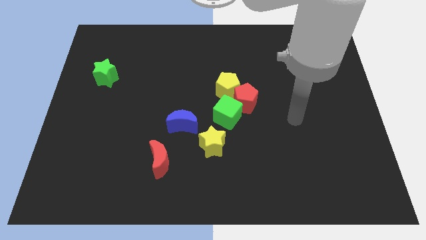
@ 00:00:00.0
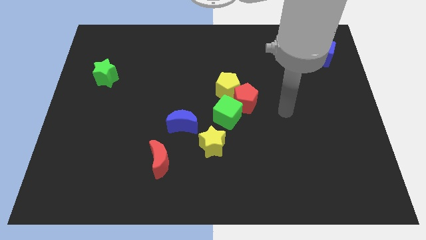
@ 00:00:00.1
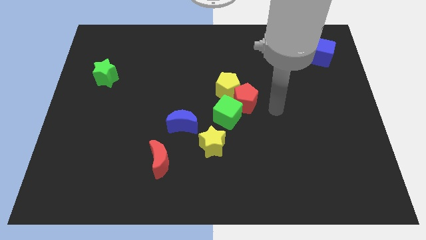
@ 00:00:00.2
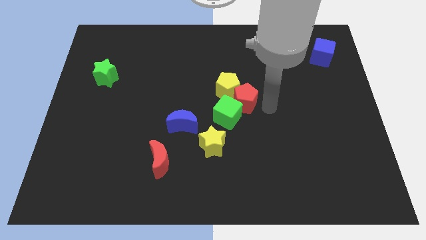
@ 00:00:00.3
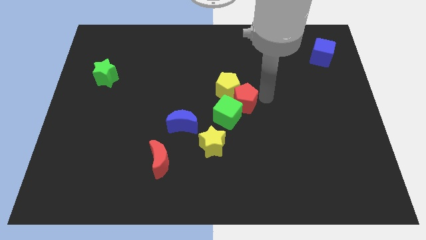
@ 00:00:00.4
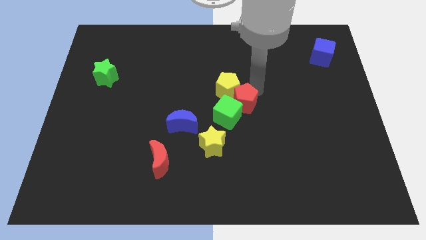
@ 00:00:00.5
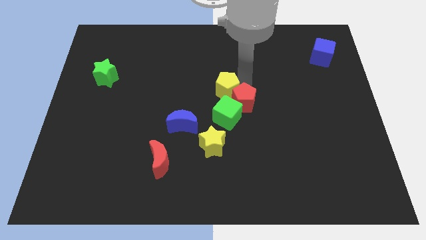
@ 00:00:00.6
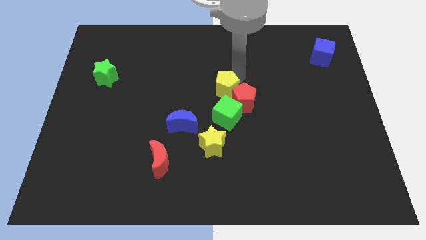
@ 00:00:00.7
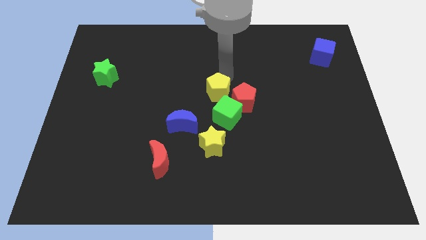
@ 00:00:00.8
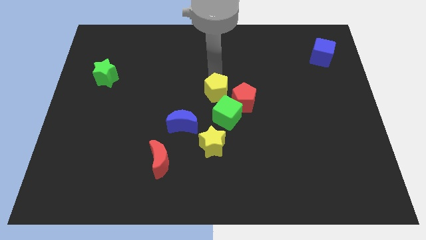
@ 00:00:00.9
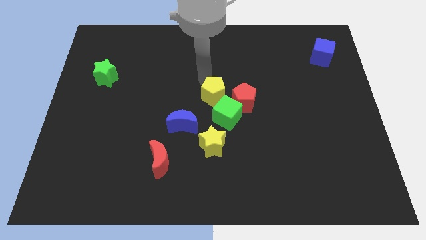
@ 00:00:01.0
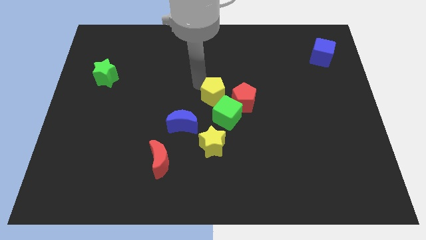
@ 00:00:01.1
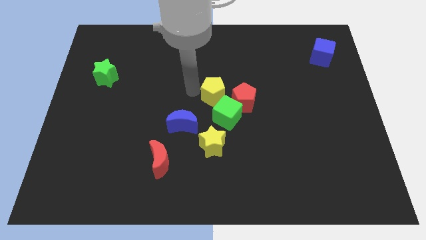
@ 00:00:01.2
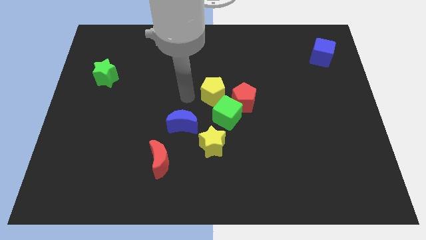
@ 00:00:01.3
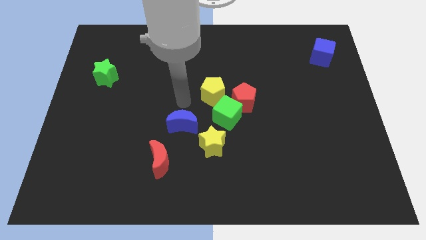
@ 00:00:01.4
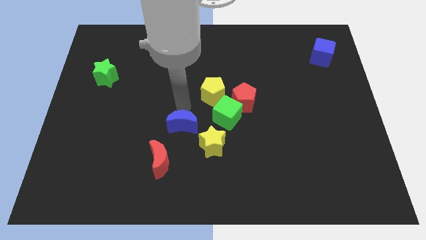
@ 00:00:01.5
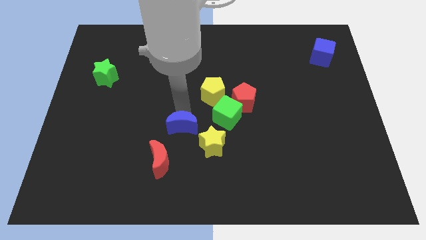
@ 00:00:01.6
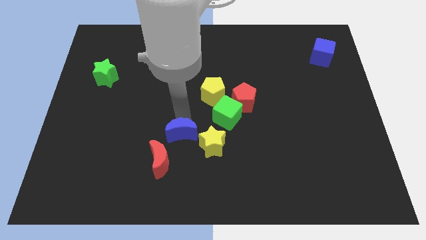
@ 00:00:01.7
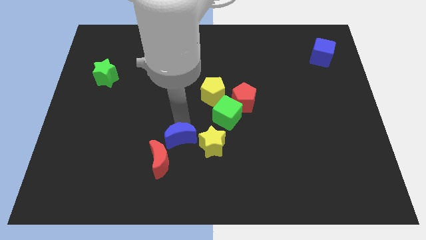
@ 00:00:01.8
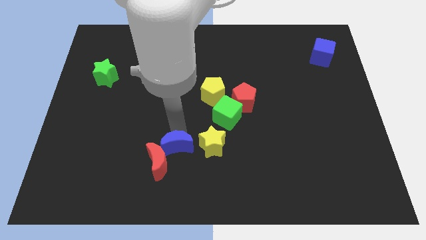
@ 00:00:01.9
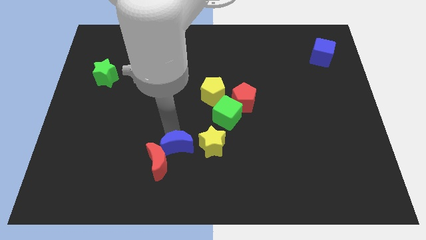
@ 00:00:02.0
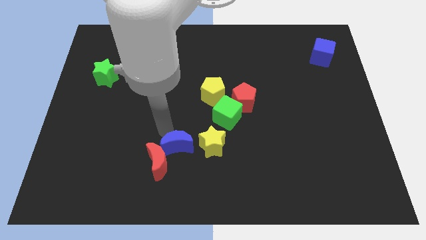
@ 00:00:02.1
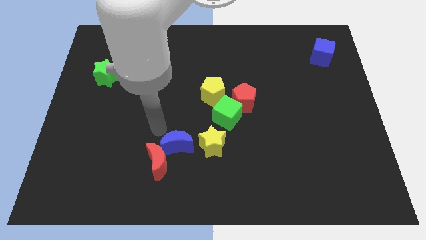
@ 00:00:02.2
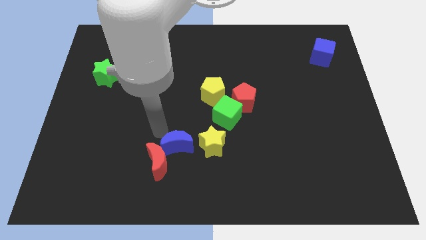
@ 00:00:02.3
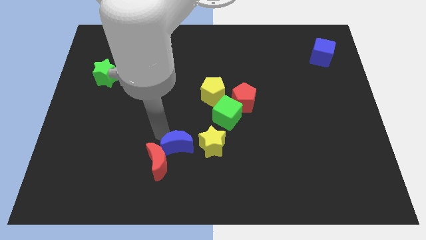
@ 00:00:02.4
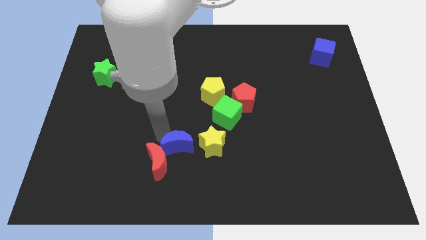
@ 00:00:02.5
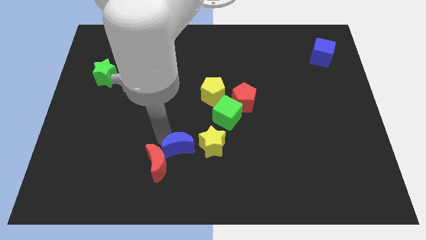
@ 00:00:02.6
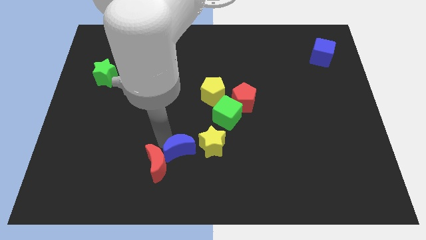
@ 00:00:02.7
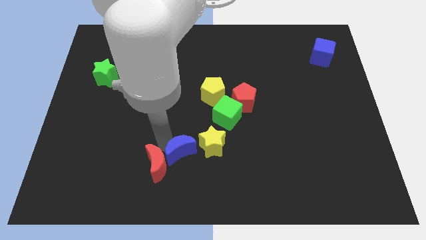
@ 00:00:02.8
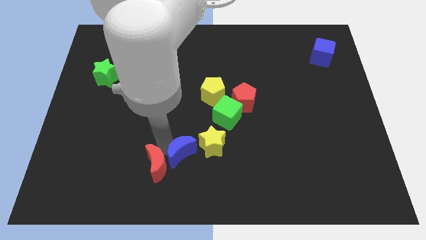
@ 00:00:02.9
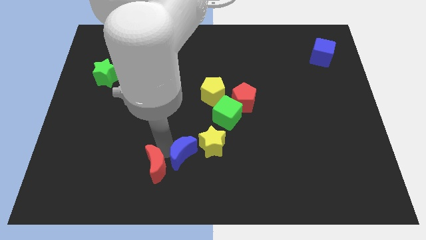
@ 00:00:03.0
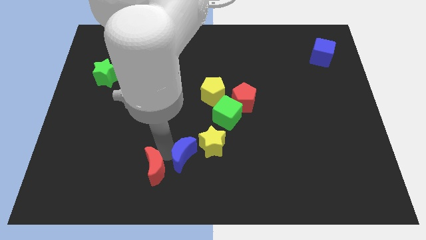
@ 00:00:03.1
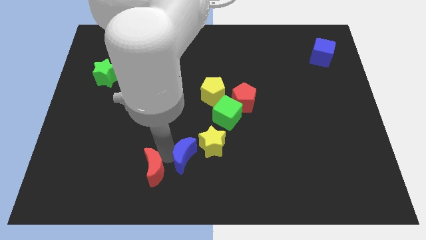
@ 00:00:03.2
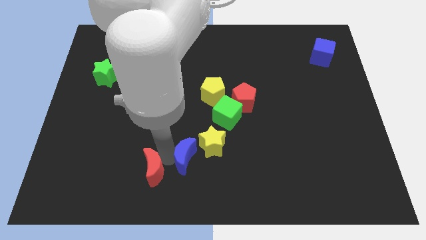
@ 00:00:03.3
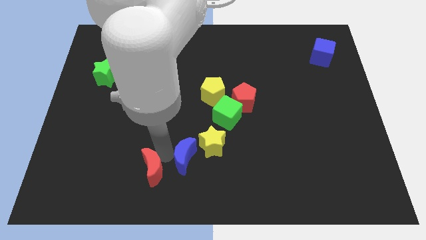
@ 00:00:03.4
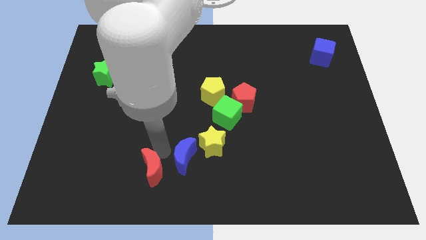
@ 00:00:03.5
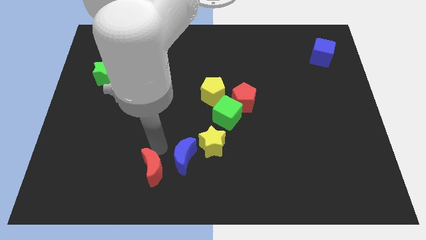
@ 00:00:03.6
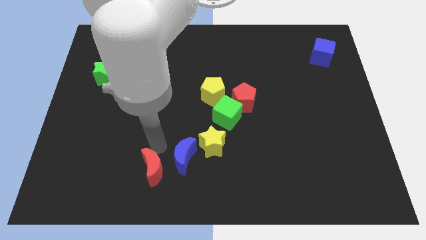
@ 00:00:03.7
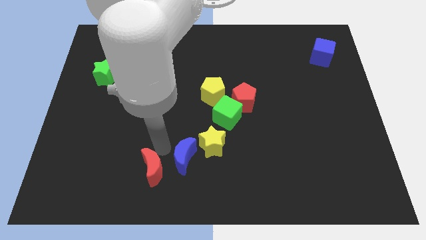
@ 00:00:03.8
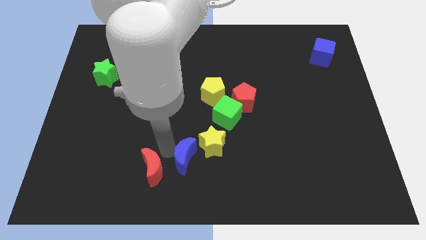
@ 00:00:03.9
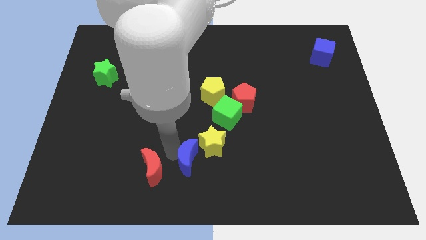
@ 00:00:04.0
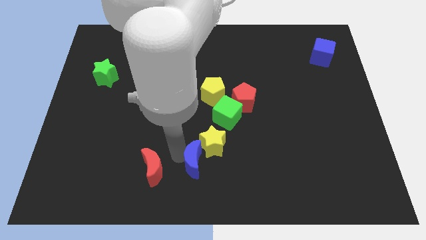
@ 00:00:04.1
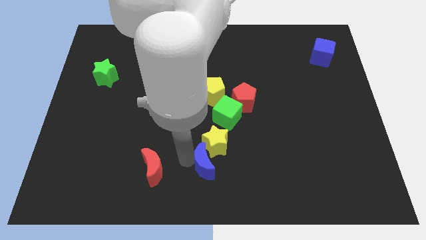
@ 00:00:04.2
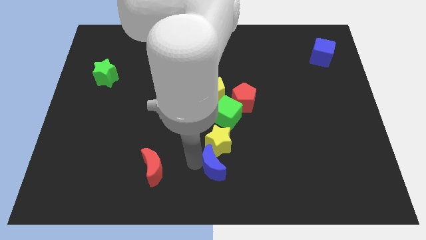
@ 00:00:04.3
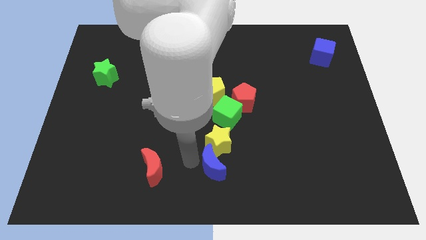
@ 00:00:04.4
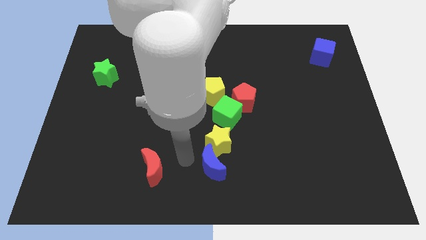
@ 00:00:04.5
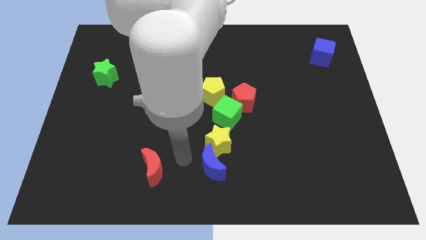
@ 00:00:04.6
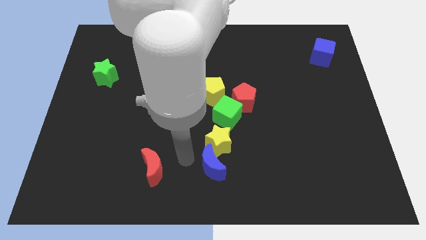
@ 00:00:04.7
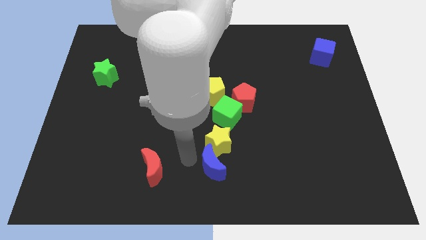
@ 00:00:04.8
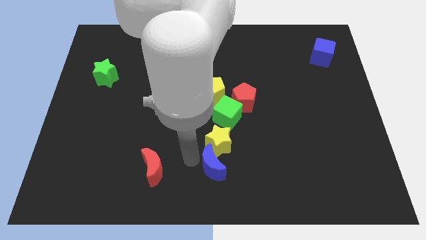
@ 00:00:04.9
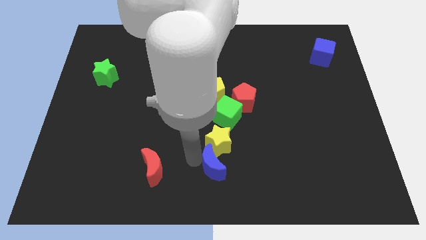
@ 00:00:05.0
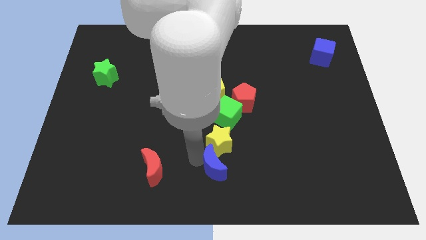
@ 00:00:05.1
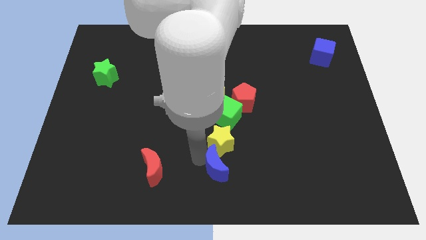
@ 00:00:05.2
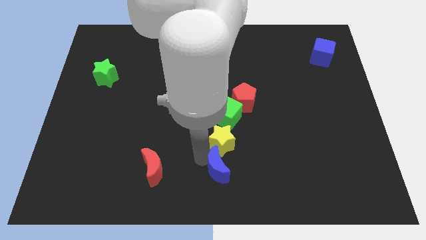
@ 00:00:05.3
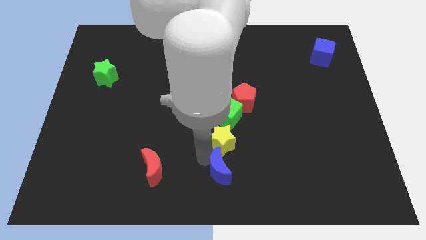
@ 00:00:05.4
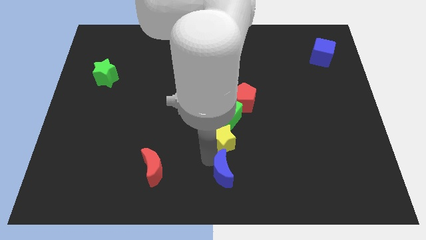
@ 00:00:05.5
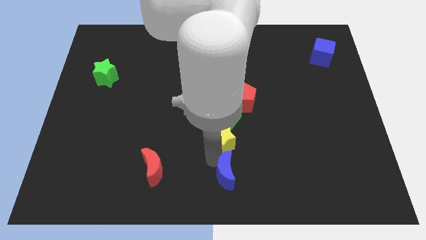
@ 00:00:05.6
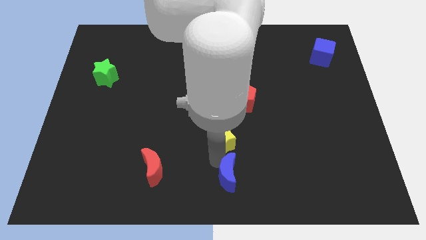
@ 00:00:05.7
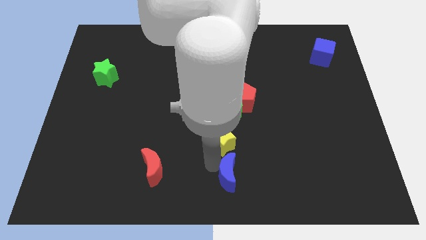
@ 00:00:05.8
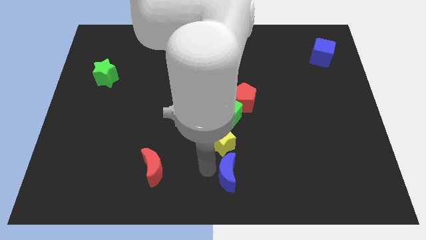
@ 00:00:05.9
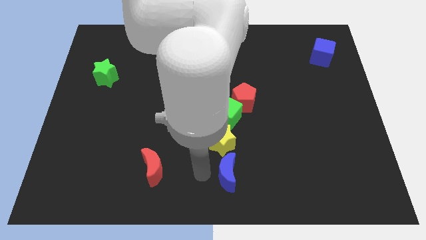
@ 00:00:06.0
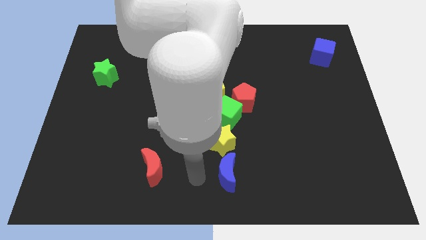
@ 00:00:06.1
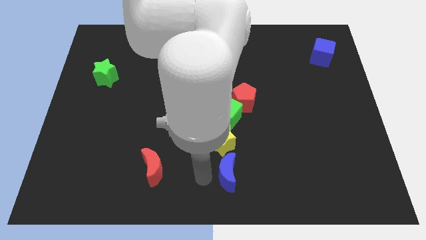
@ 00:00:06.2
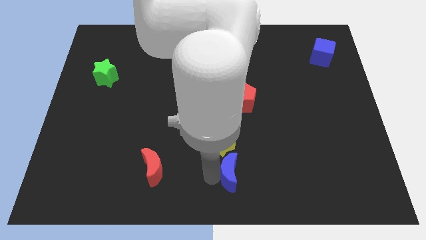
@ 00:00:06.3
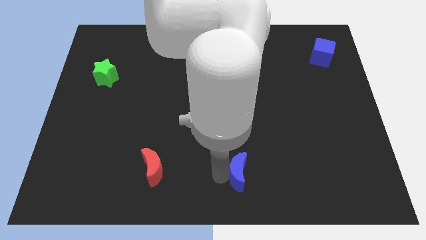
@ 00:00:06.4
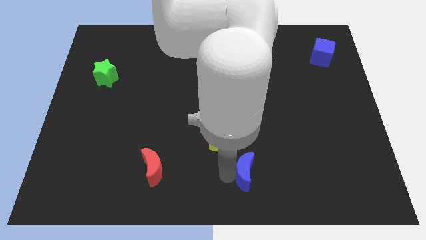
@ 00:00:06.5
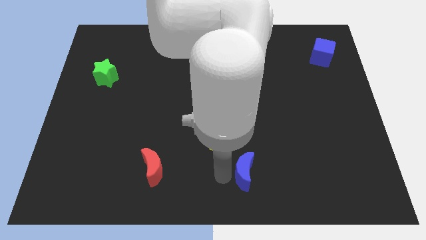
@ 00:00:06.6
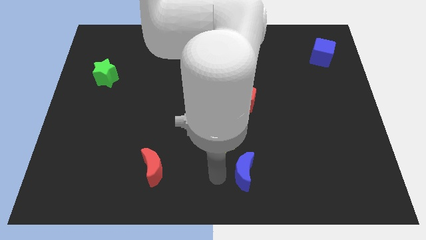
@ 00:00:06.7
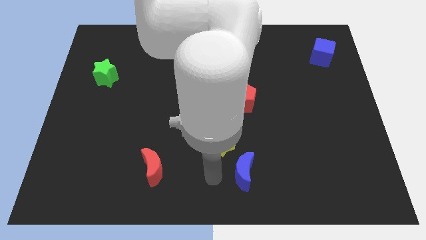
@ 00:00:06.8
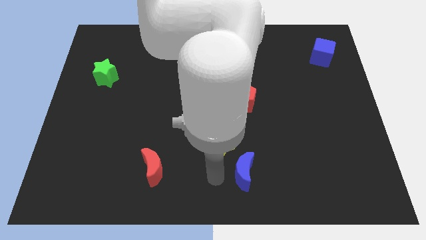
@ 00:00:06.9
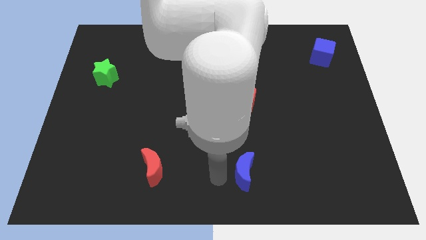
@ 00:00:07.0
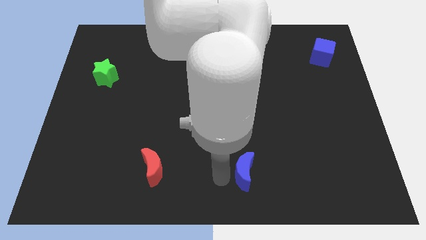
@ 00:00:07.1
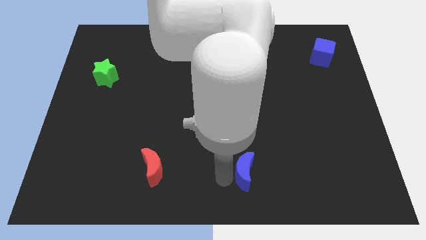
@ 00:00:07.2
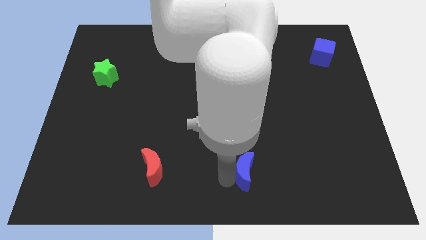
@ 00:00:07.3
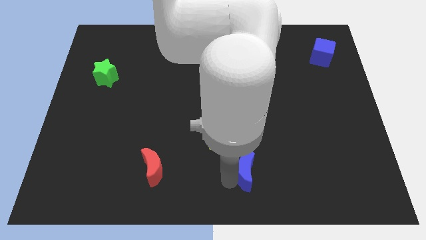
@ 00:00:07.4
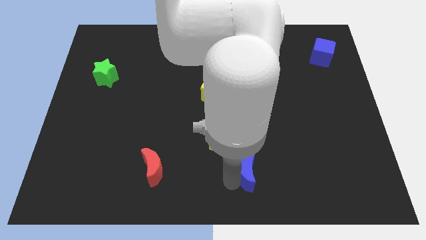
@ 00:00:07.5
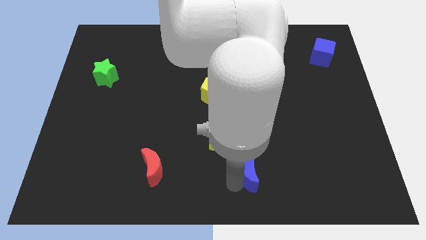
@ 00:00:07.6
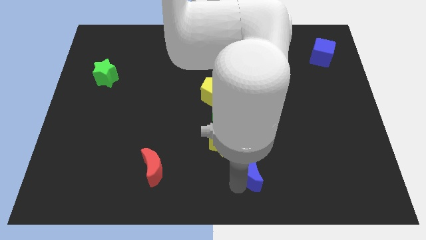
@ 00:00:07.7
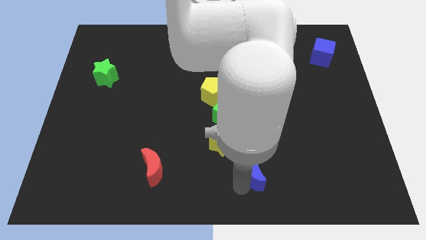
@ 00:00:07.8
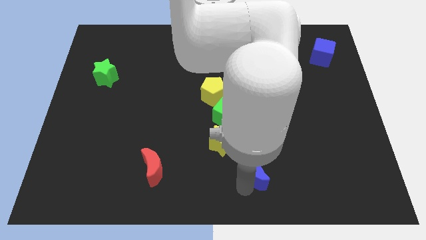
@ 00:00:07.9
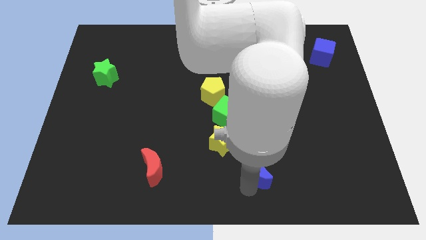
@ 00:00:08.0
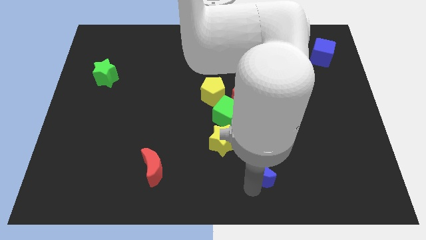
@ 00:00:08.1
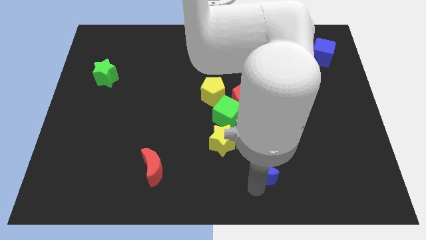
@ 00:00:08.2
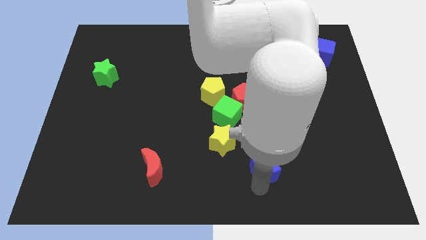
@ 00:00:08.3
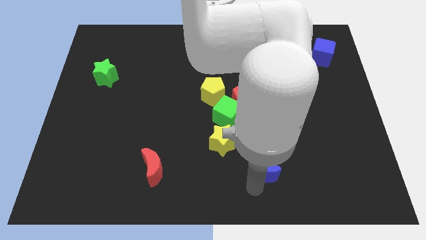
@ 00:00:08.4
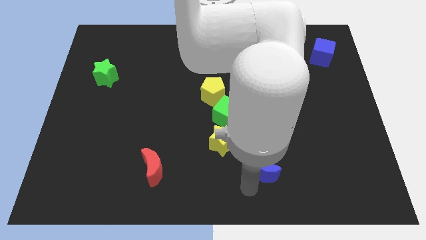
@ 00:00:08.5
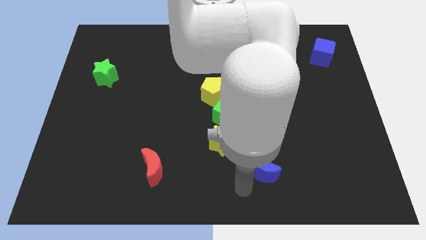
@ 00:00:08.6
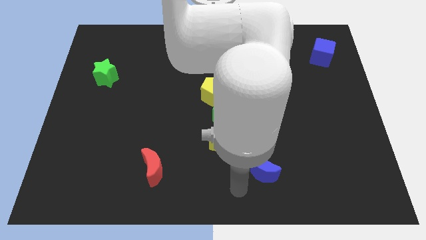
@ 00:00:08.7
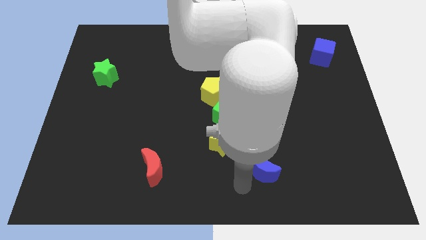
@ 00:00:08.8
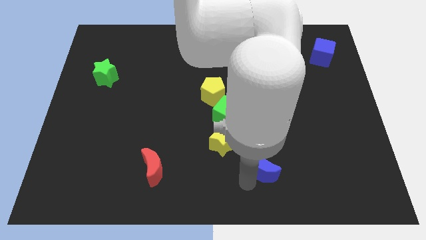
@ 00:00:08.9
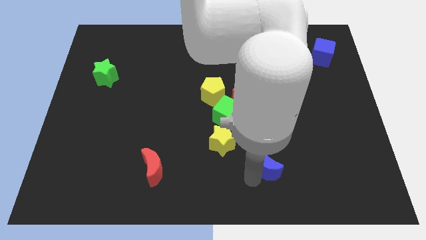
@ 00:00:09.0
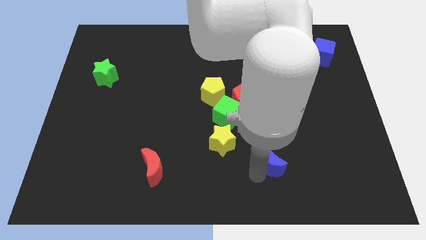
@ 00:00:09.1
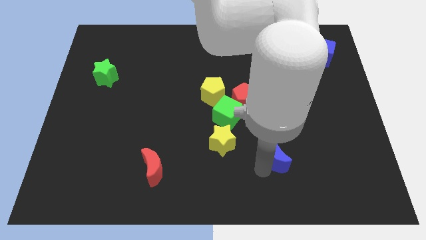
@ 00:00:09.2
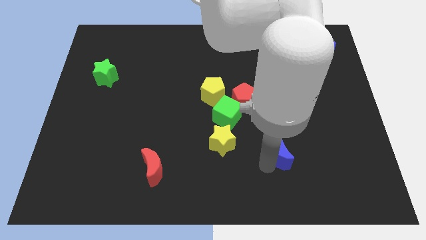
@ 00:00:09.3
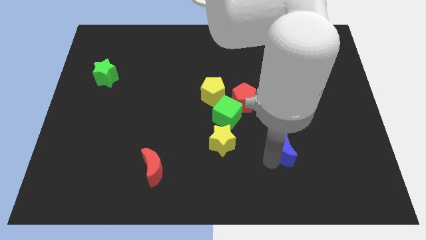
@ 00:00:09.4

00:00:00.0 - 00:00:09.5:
push the blue moon right
